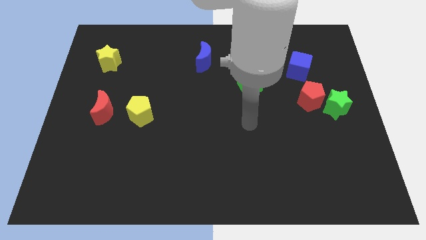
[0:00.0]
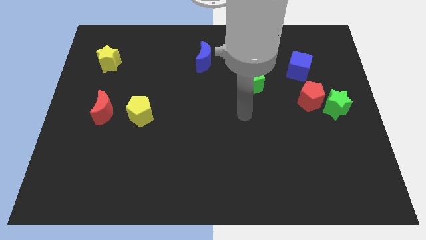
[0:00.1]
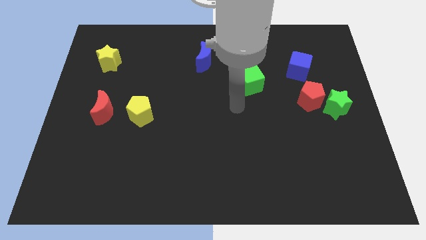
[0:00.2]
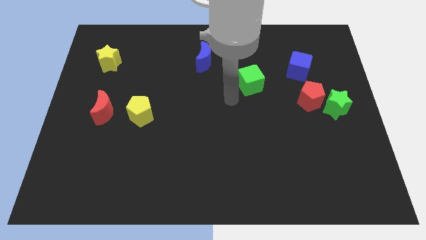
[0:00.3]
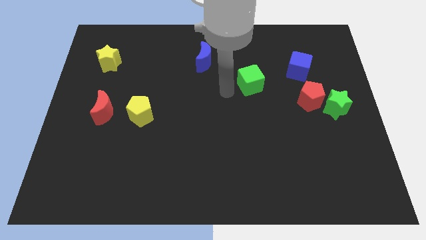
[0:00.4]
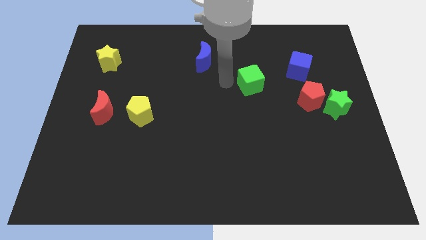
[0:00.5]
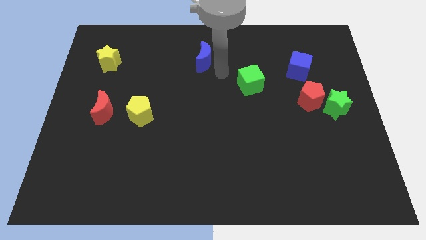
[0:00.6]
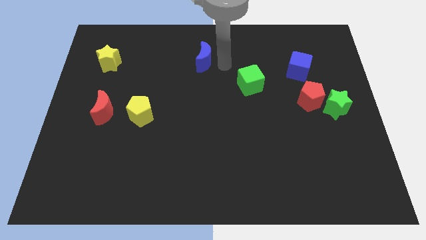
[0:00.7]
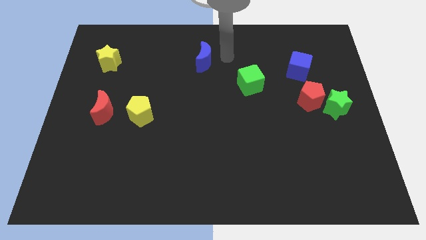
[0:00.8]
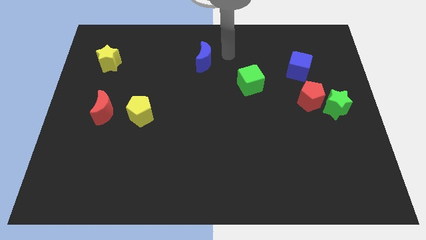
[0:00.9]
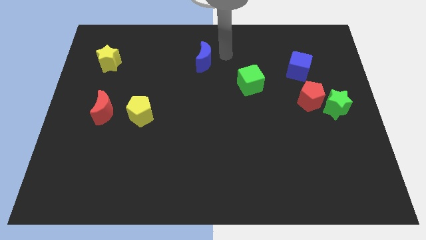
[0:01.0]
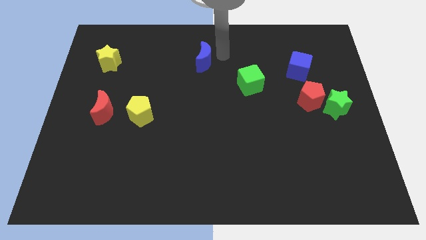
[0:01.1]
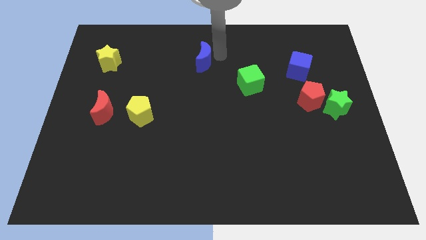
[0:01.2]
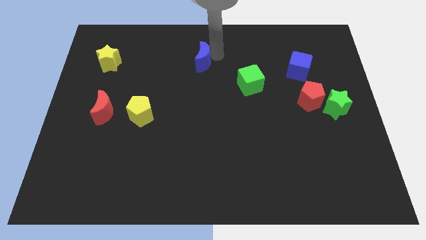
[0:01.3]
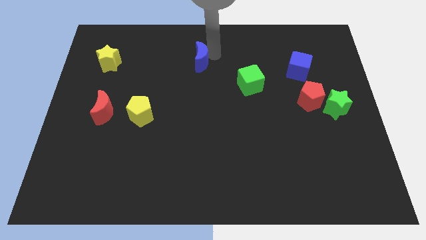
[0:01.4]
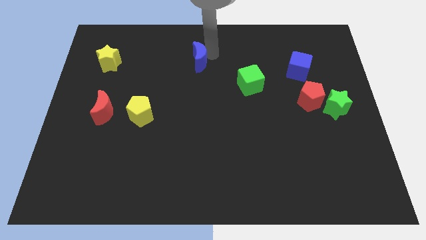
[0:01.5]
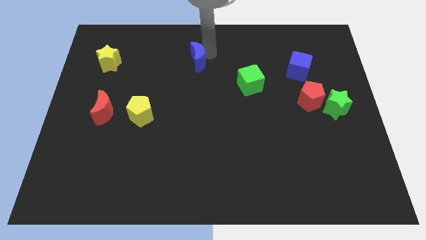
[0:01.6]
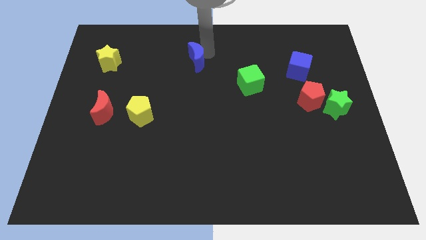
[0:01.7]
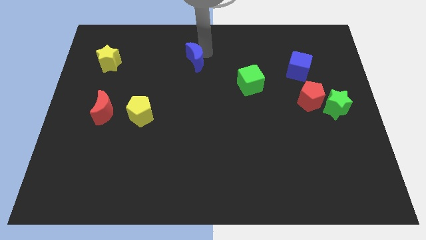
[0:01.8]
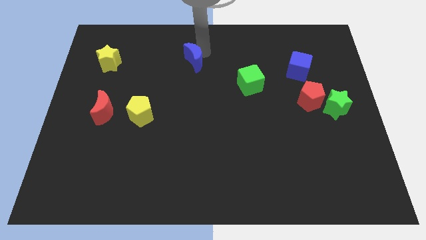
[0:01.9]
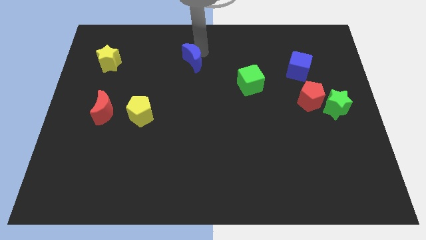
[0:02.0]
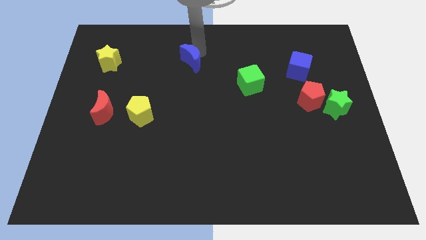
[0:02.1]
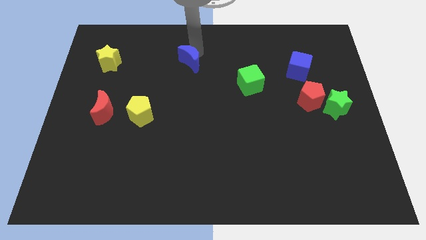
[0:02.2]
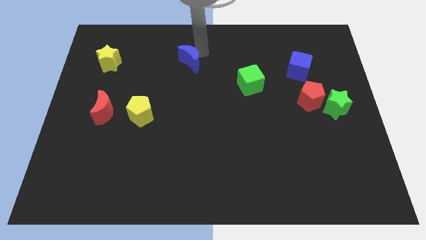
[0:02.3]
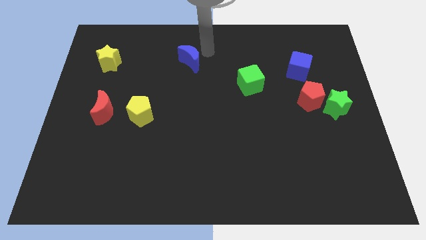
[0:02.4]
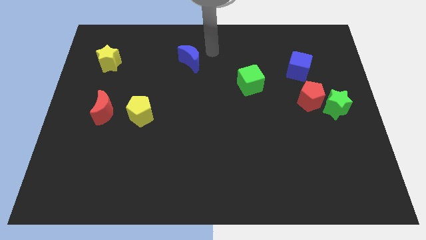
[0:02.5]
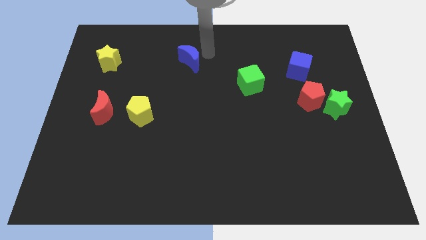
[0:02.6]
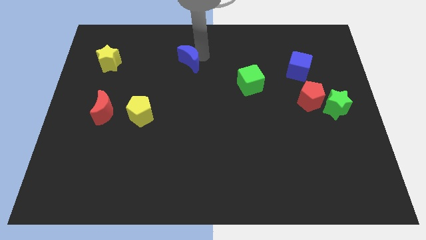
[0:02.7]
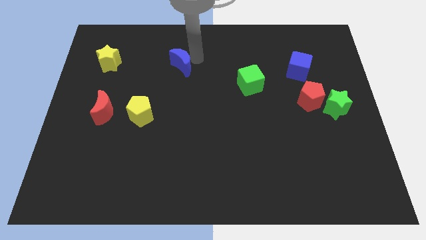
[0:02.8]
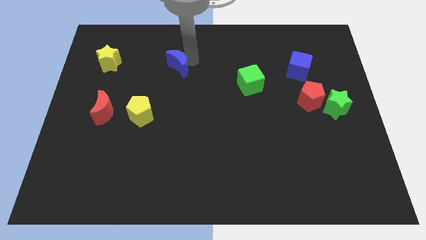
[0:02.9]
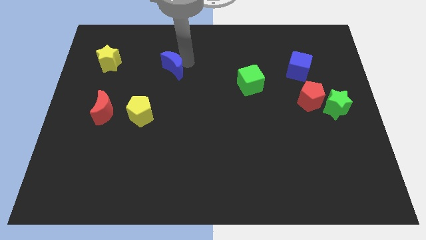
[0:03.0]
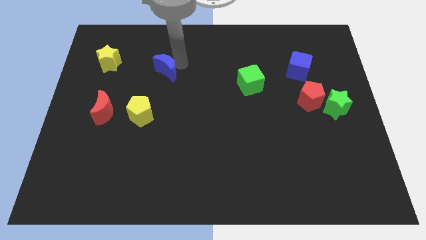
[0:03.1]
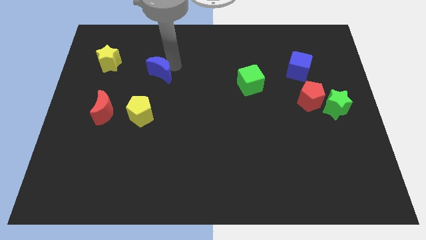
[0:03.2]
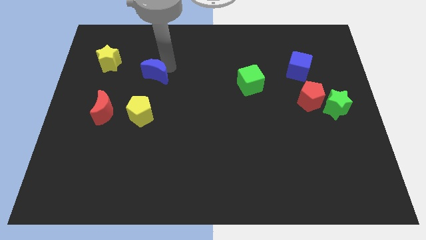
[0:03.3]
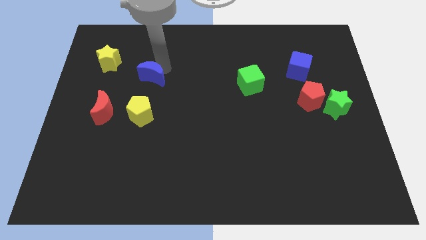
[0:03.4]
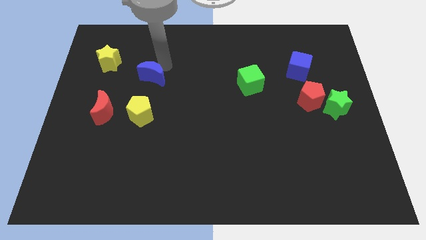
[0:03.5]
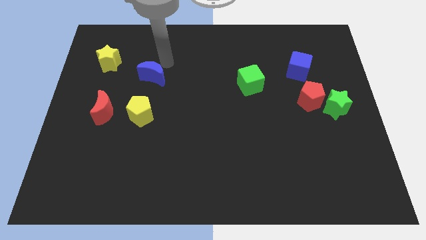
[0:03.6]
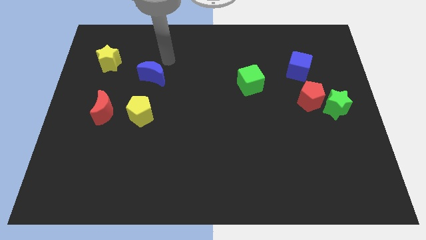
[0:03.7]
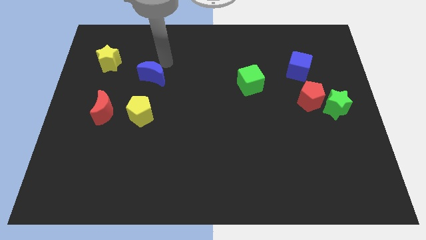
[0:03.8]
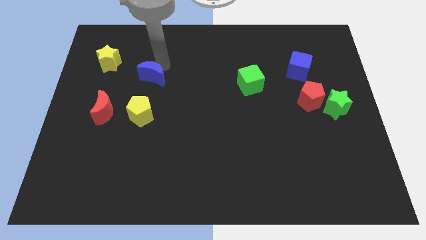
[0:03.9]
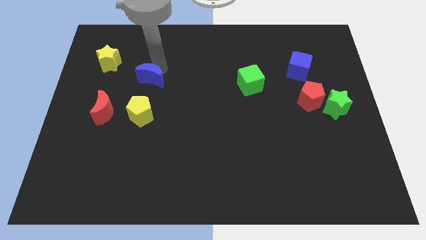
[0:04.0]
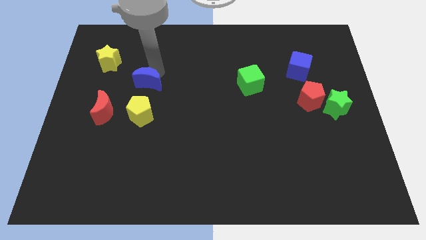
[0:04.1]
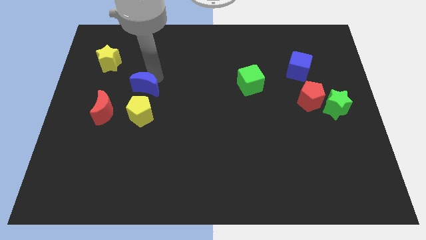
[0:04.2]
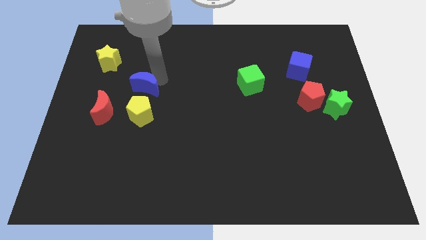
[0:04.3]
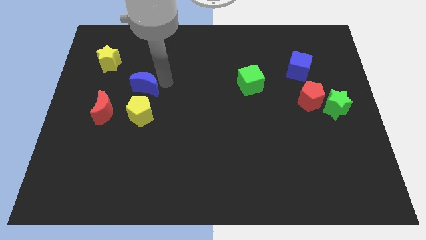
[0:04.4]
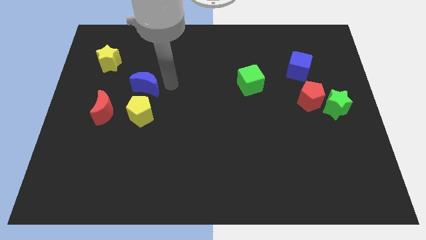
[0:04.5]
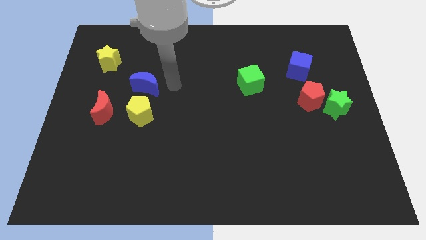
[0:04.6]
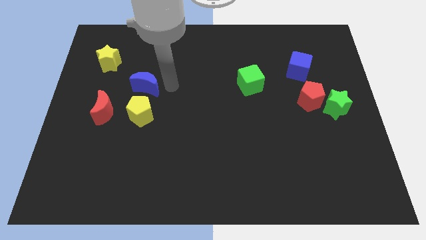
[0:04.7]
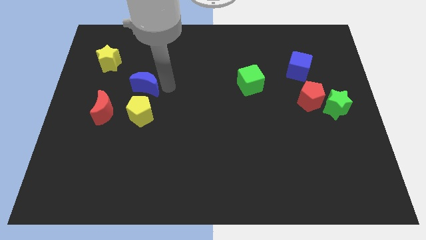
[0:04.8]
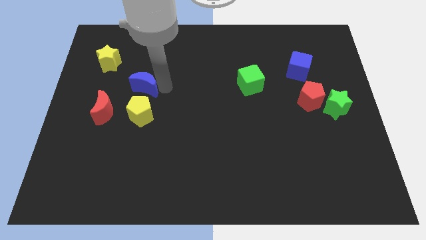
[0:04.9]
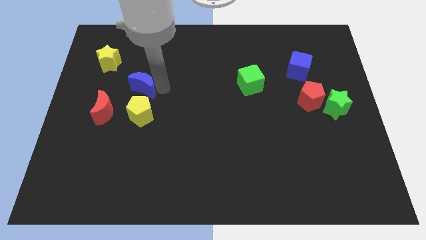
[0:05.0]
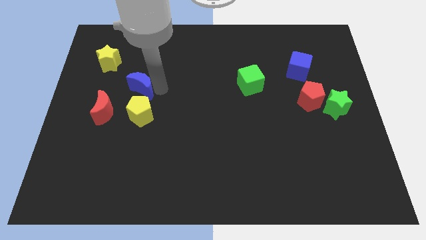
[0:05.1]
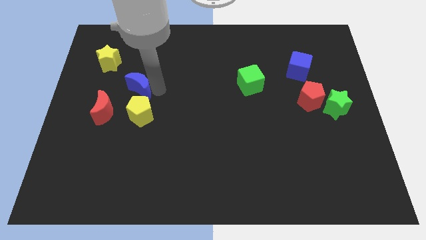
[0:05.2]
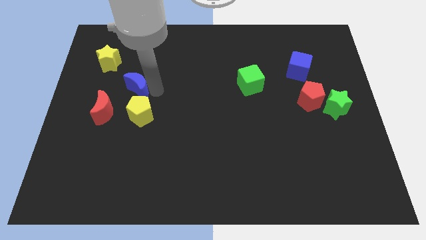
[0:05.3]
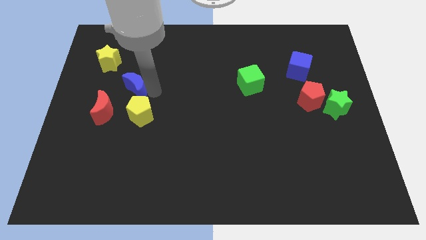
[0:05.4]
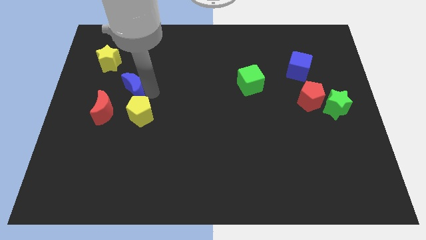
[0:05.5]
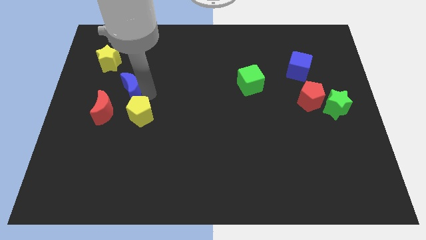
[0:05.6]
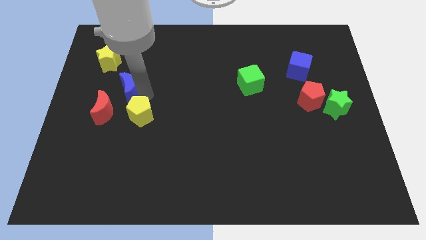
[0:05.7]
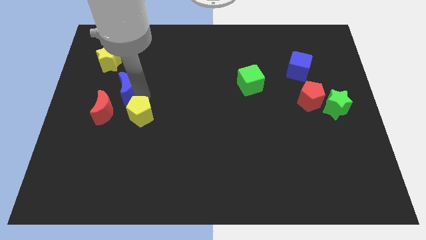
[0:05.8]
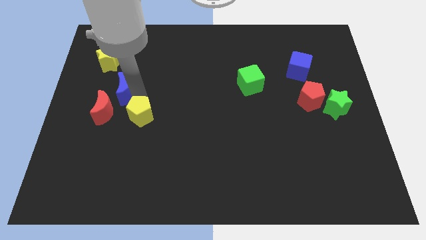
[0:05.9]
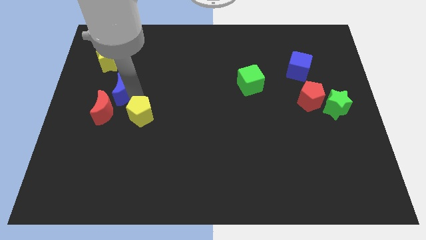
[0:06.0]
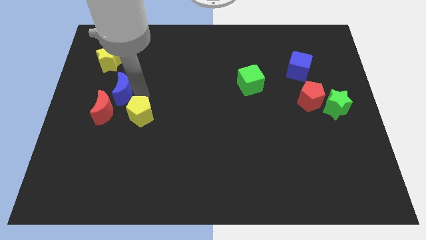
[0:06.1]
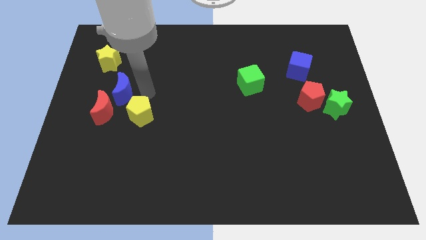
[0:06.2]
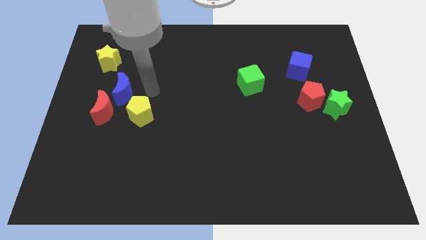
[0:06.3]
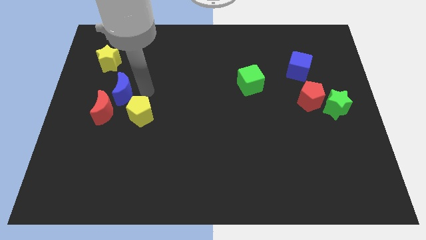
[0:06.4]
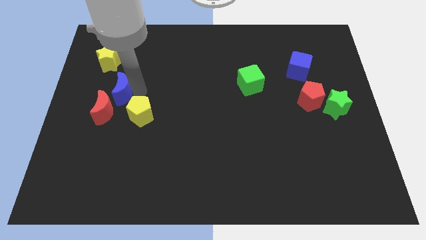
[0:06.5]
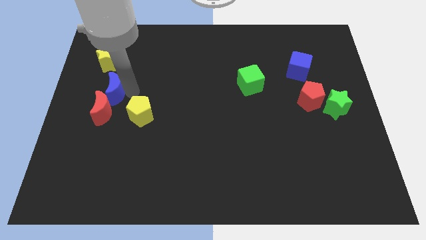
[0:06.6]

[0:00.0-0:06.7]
slide the blue moon below the yellow star

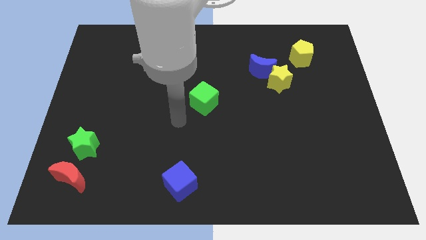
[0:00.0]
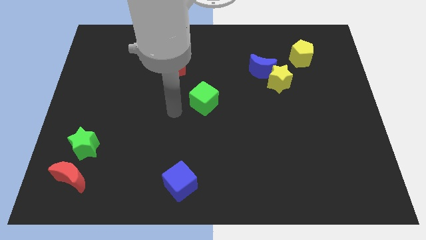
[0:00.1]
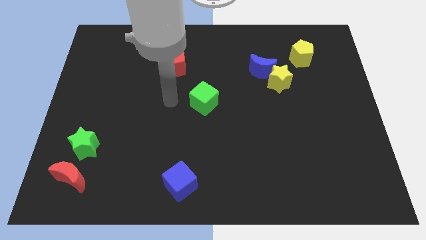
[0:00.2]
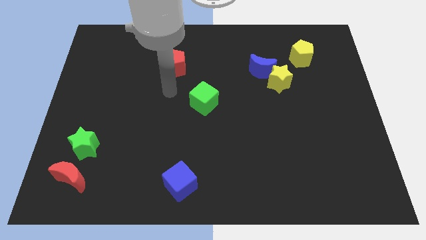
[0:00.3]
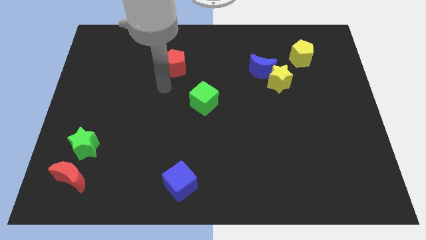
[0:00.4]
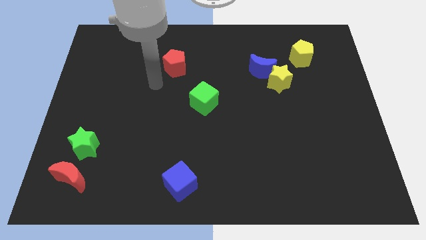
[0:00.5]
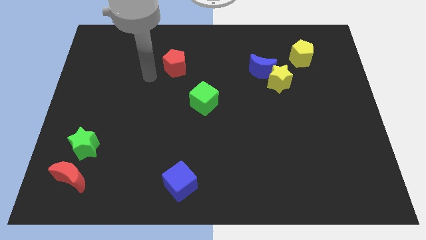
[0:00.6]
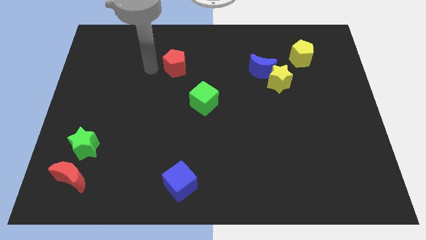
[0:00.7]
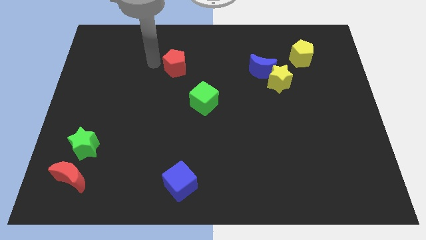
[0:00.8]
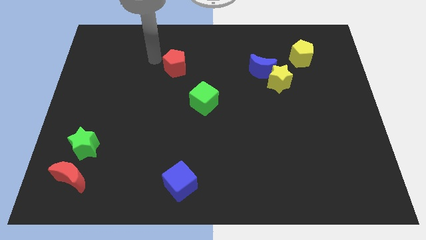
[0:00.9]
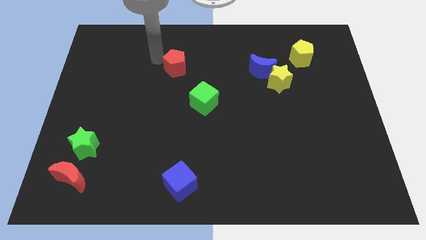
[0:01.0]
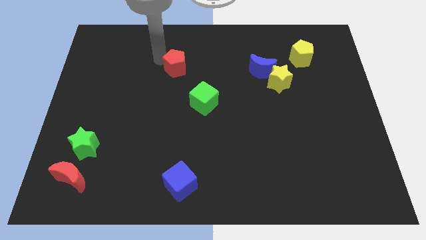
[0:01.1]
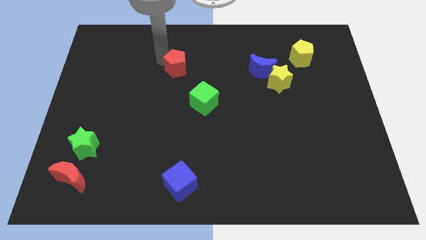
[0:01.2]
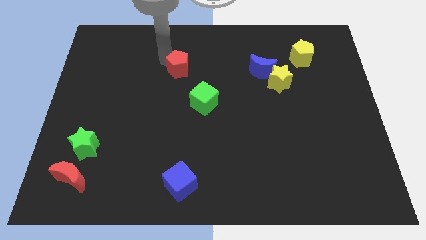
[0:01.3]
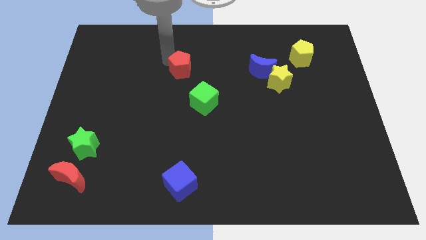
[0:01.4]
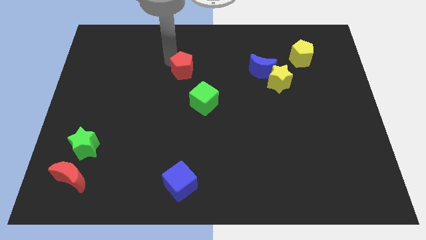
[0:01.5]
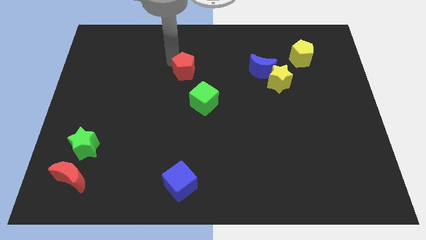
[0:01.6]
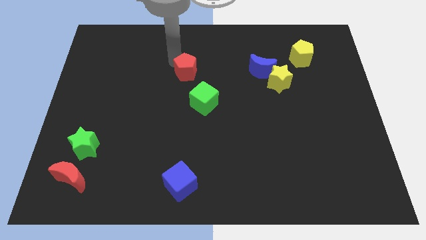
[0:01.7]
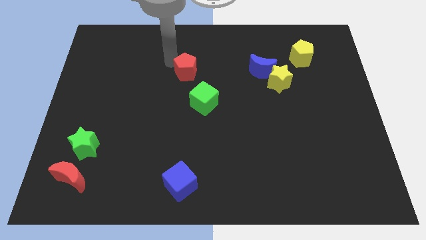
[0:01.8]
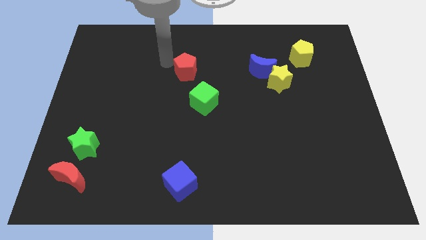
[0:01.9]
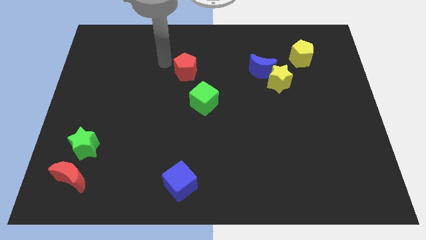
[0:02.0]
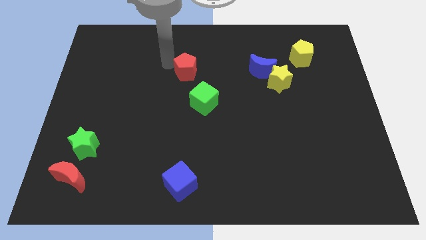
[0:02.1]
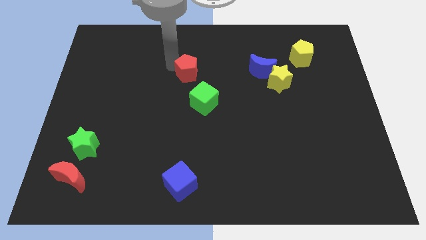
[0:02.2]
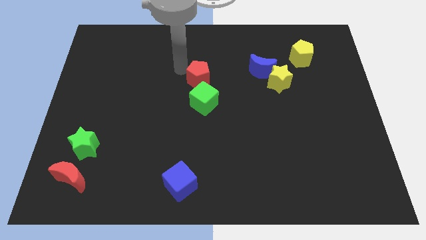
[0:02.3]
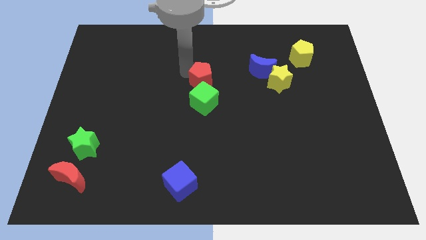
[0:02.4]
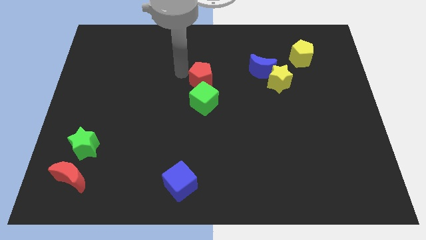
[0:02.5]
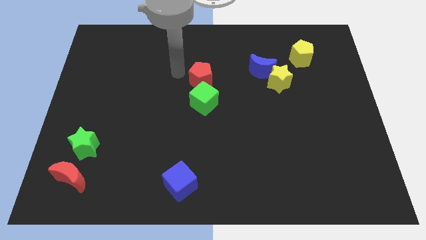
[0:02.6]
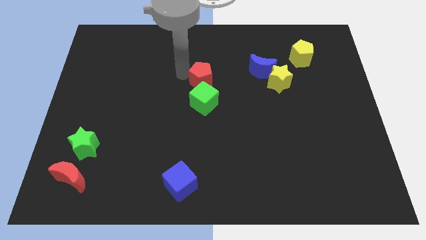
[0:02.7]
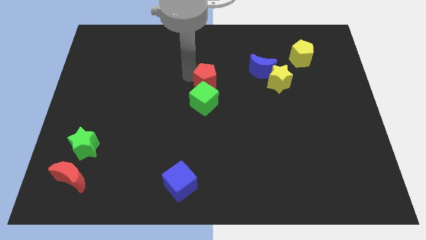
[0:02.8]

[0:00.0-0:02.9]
move the red pentagon to the top right of the green cube
